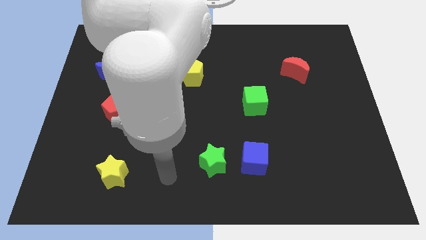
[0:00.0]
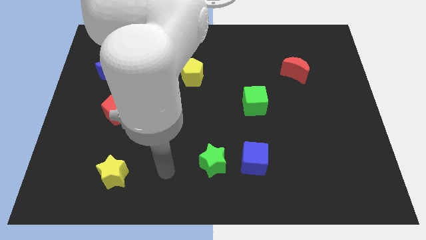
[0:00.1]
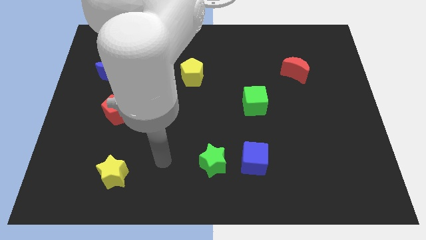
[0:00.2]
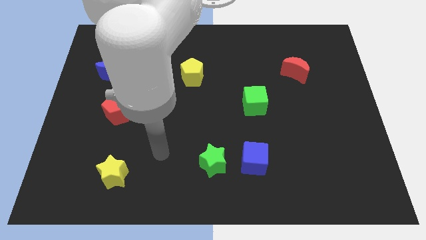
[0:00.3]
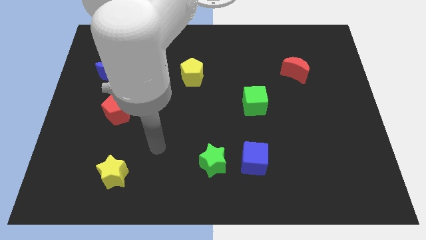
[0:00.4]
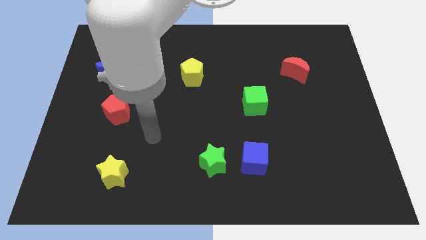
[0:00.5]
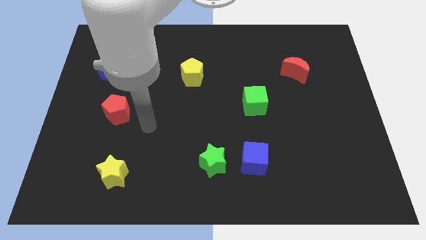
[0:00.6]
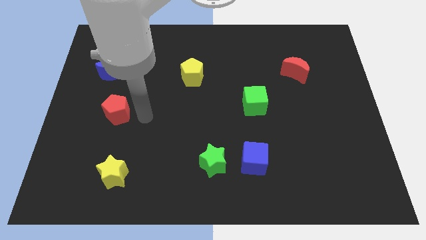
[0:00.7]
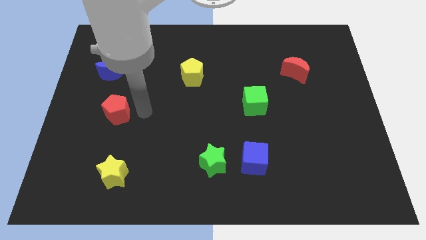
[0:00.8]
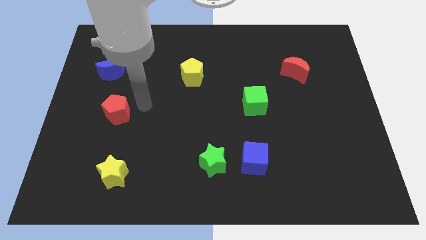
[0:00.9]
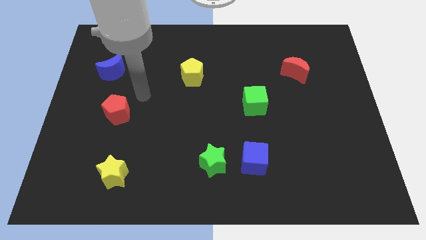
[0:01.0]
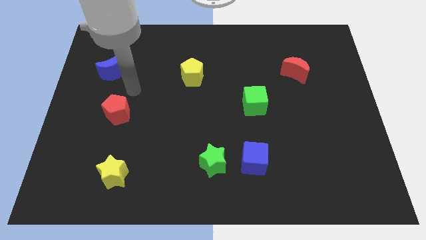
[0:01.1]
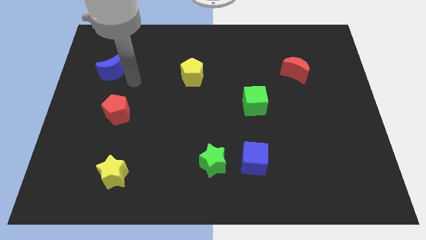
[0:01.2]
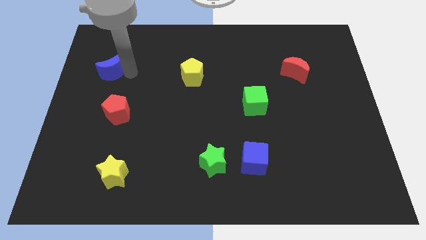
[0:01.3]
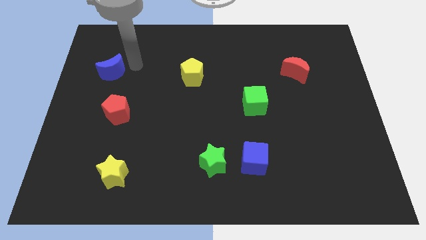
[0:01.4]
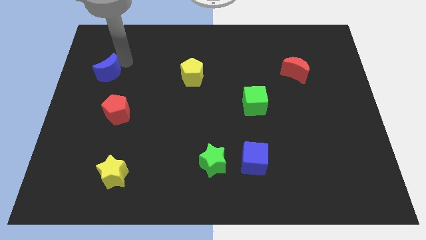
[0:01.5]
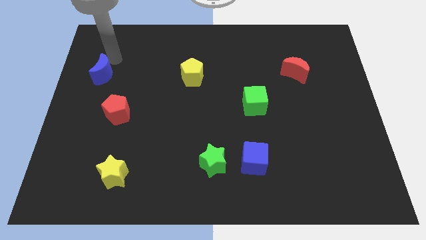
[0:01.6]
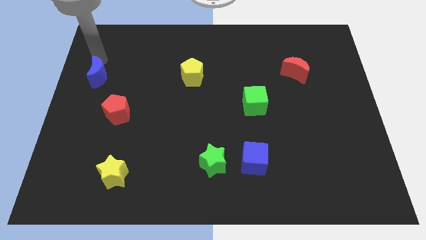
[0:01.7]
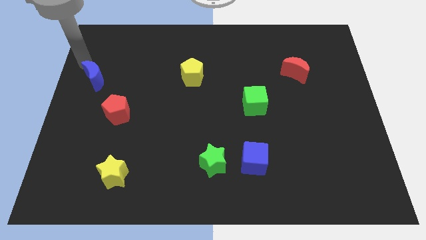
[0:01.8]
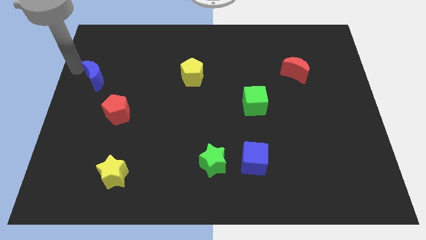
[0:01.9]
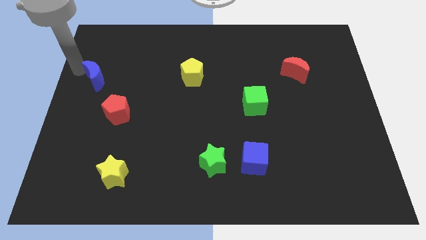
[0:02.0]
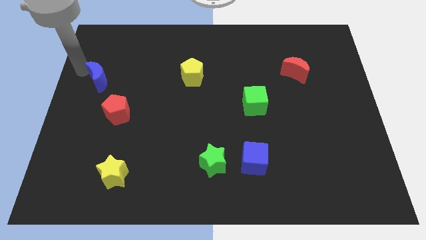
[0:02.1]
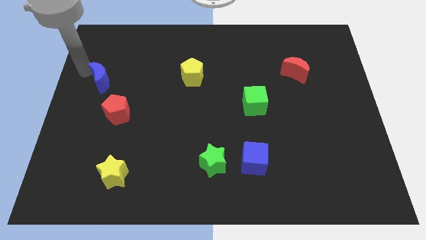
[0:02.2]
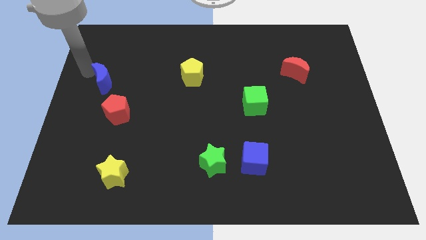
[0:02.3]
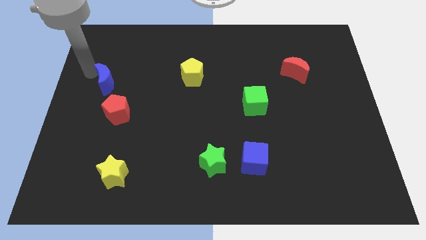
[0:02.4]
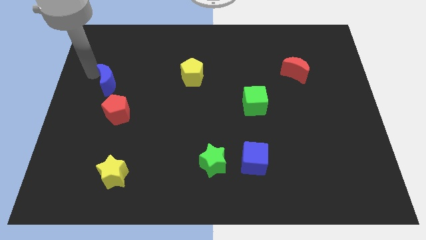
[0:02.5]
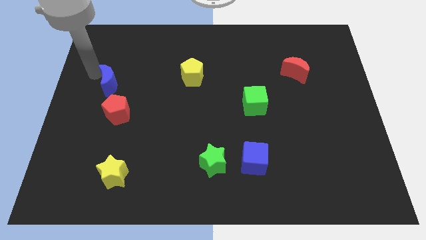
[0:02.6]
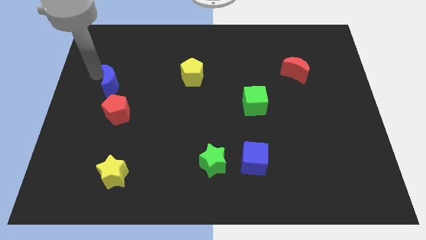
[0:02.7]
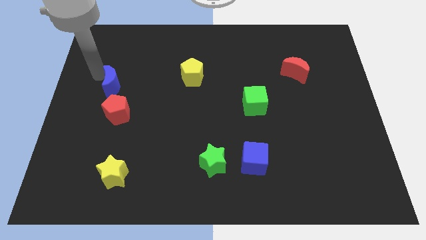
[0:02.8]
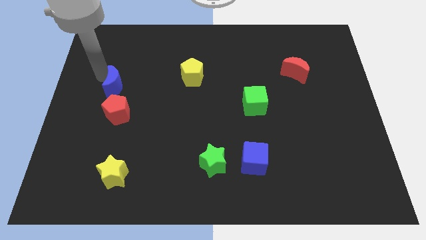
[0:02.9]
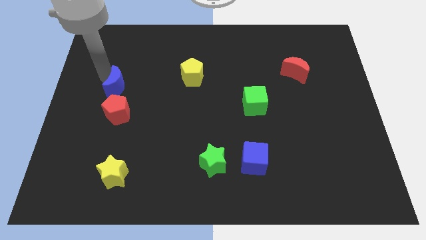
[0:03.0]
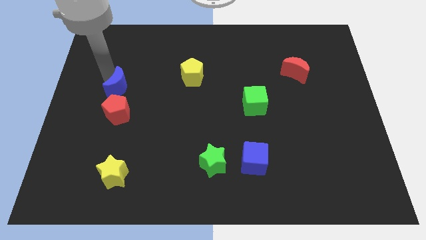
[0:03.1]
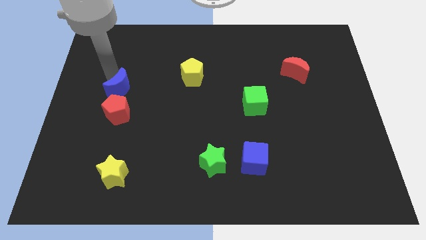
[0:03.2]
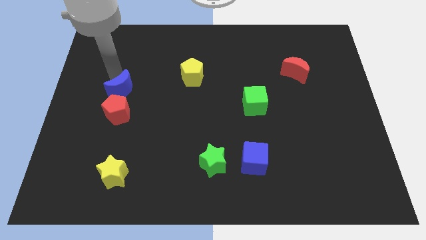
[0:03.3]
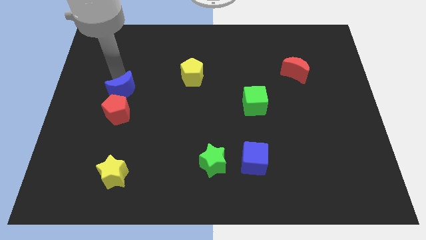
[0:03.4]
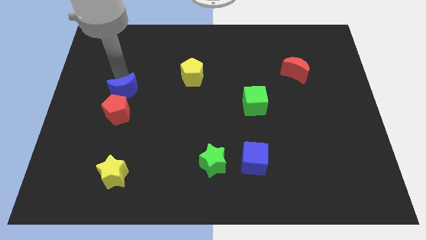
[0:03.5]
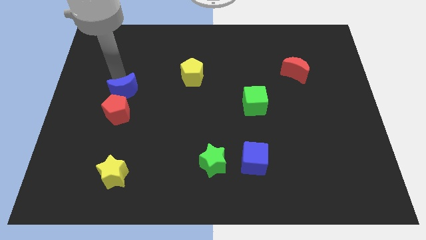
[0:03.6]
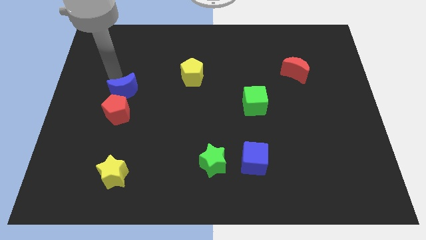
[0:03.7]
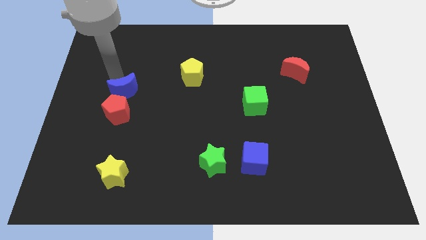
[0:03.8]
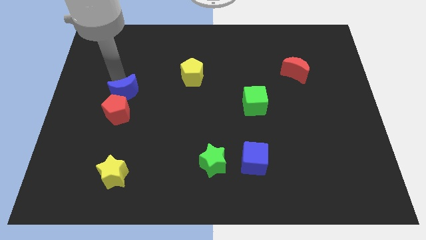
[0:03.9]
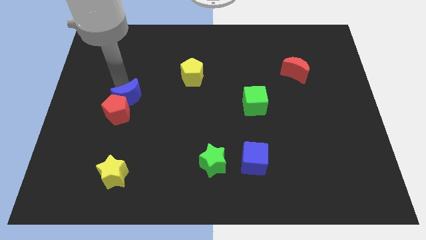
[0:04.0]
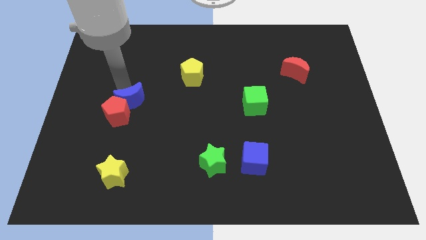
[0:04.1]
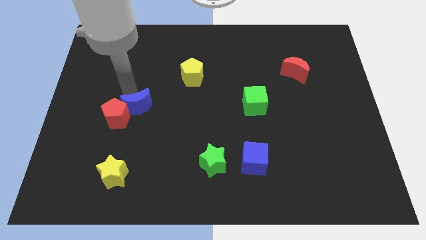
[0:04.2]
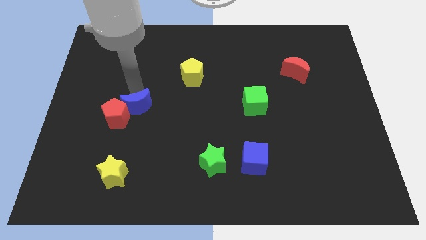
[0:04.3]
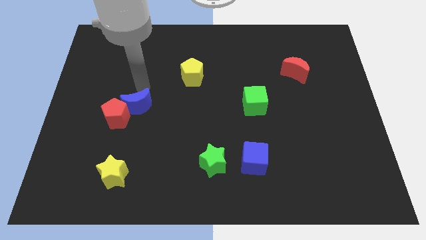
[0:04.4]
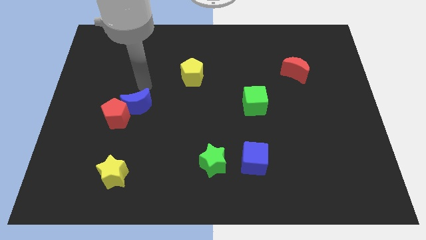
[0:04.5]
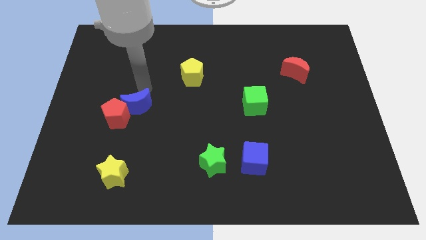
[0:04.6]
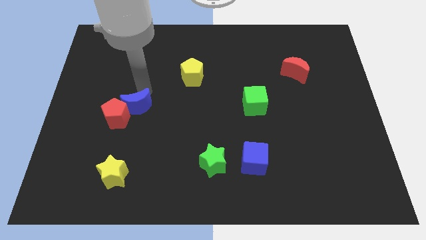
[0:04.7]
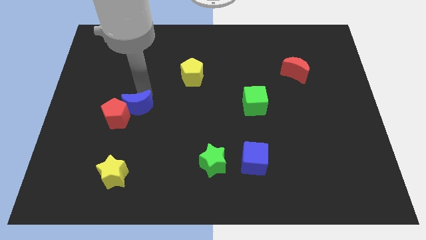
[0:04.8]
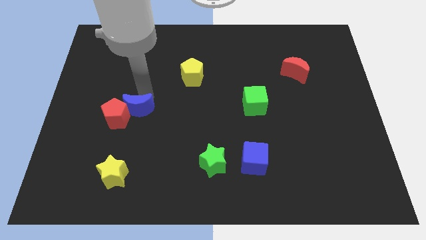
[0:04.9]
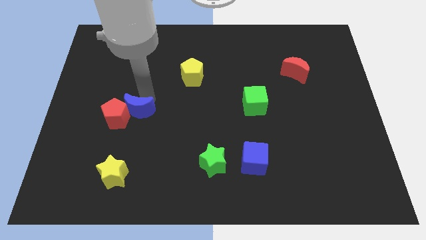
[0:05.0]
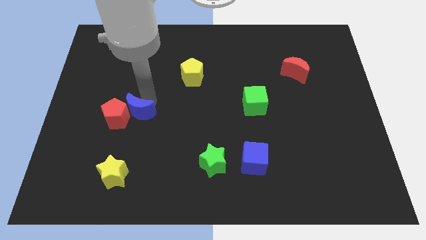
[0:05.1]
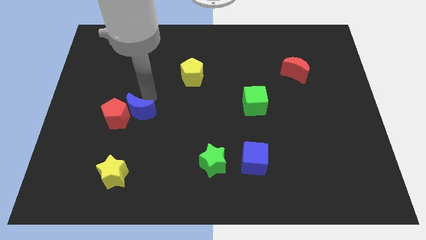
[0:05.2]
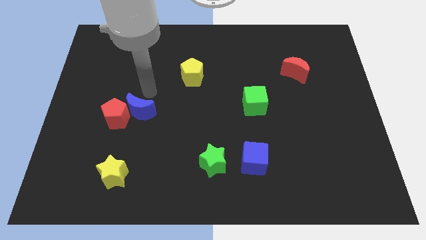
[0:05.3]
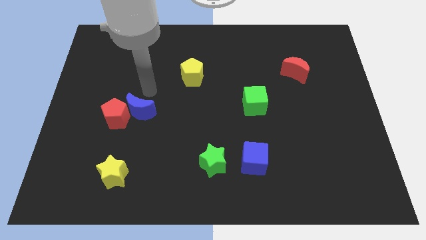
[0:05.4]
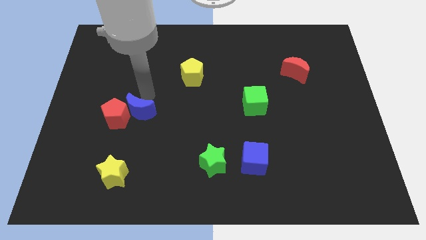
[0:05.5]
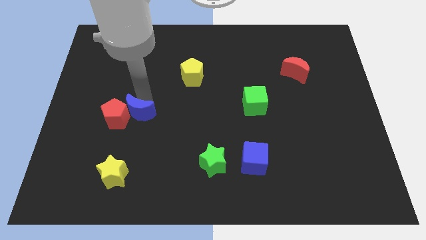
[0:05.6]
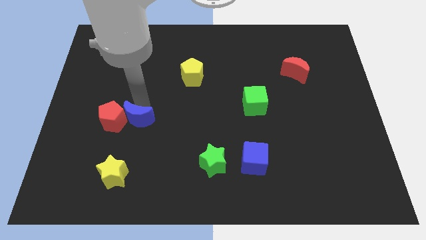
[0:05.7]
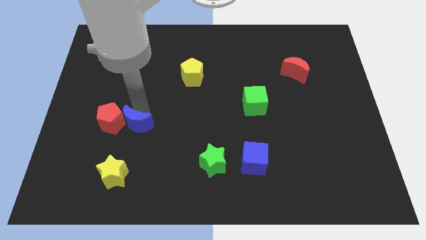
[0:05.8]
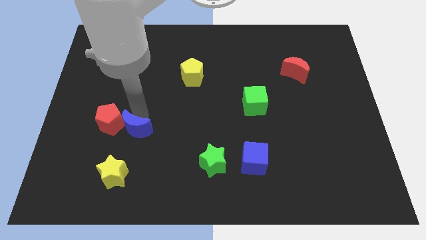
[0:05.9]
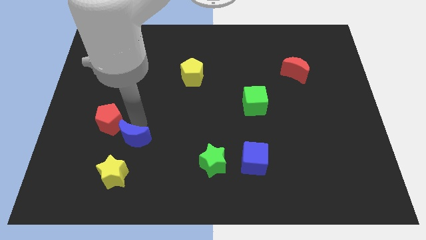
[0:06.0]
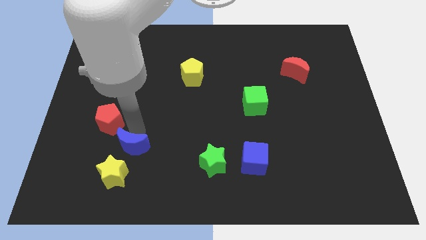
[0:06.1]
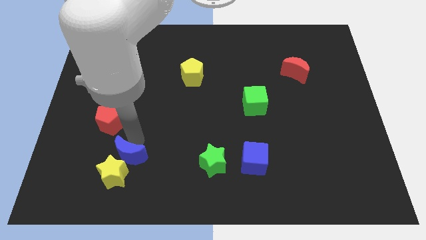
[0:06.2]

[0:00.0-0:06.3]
put the blue moon to the yellow star

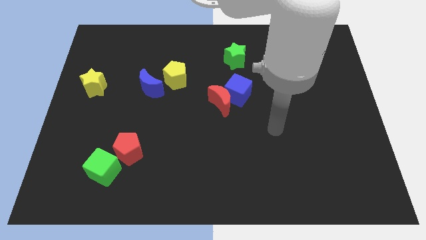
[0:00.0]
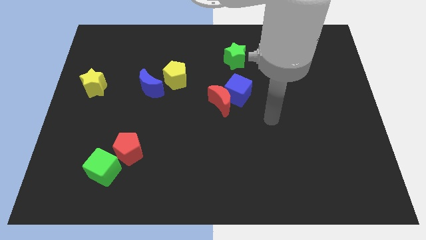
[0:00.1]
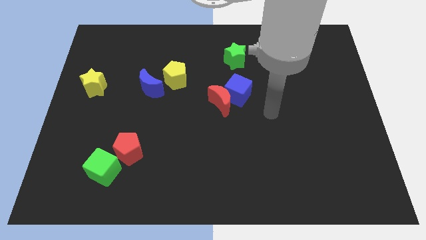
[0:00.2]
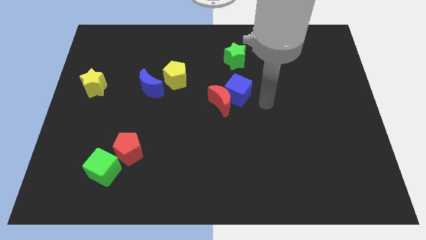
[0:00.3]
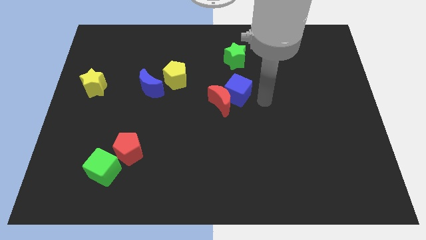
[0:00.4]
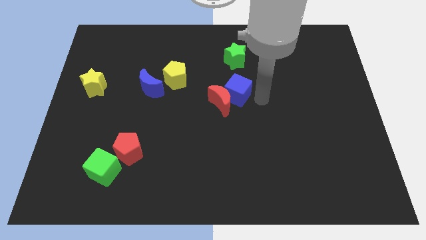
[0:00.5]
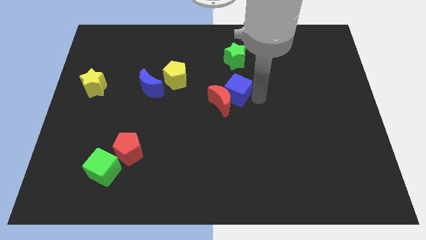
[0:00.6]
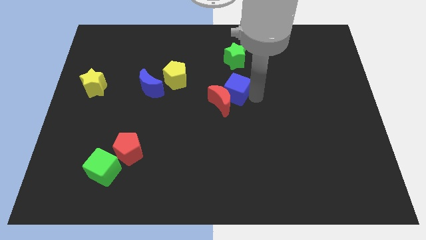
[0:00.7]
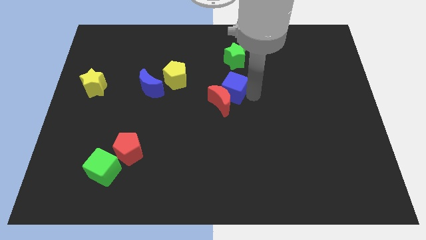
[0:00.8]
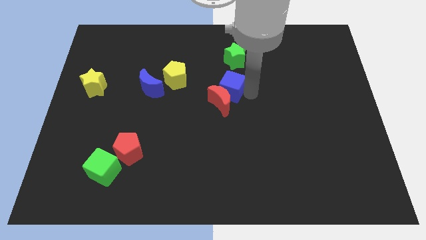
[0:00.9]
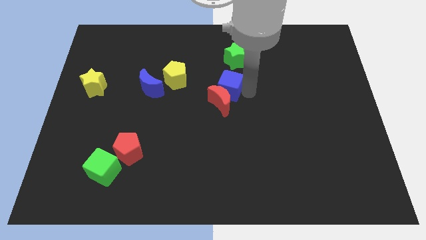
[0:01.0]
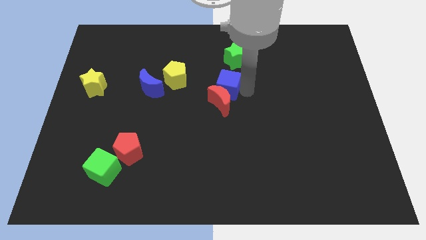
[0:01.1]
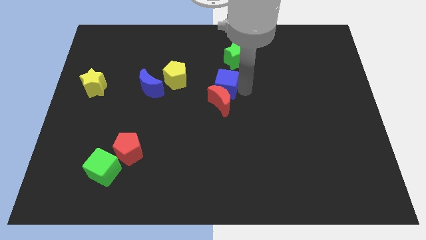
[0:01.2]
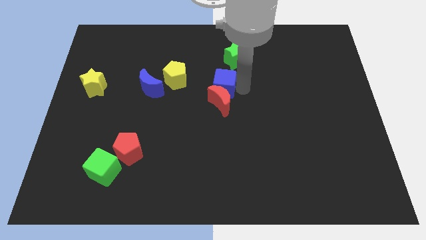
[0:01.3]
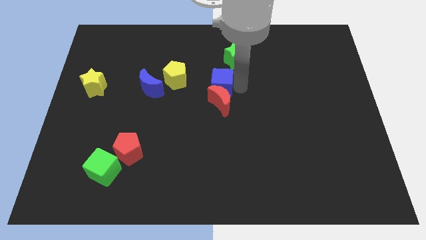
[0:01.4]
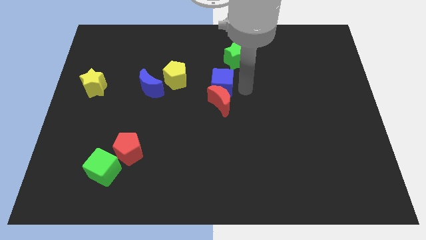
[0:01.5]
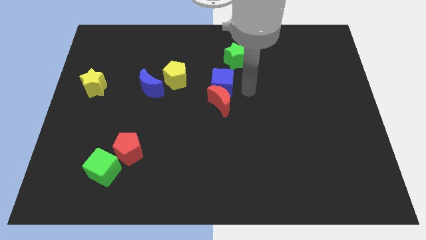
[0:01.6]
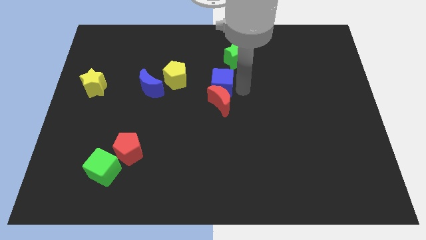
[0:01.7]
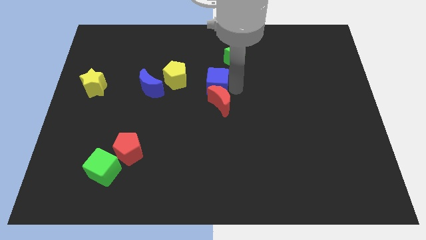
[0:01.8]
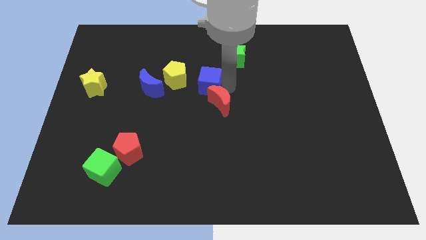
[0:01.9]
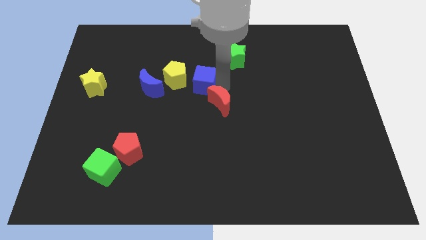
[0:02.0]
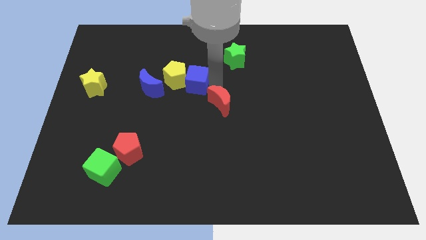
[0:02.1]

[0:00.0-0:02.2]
put the blue cube close to the yellow pentagon
